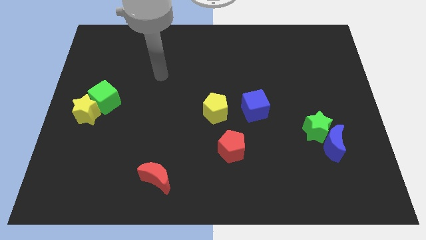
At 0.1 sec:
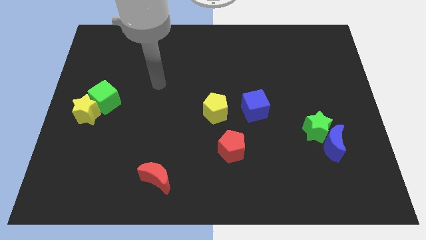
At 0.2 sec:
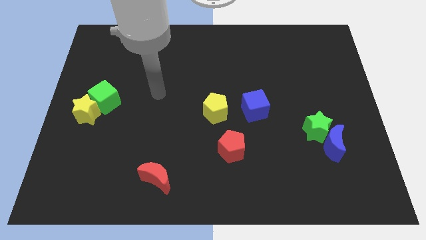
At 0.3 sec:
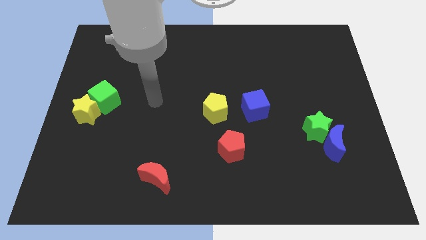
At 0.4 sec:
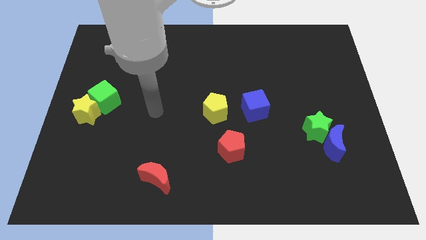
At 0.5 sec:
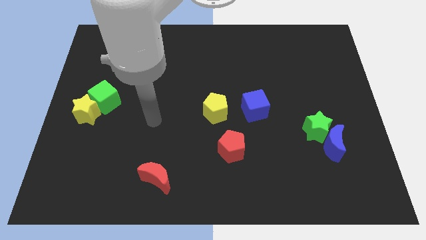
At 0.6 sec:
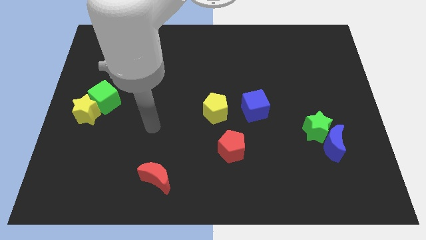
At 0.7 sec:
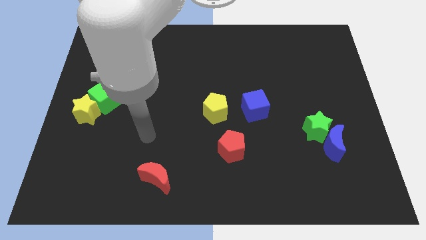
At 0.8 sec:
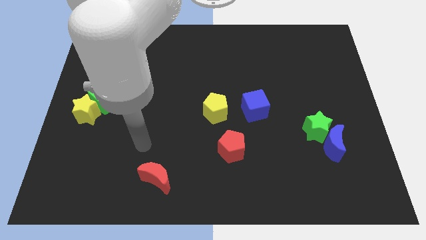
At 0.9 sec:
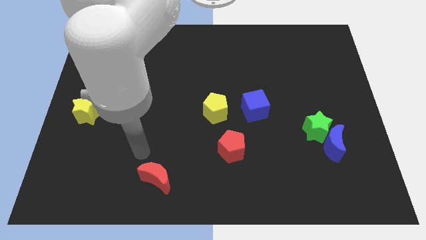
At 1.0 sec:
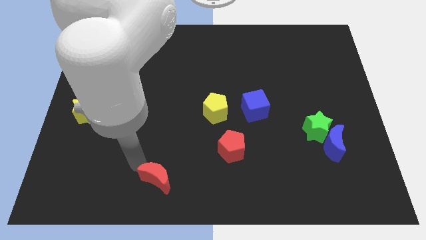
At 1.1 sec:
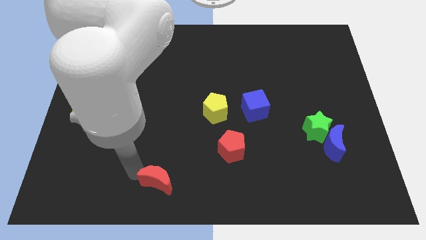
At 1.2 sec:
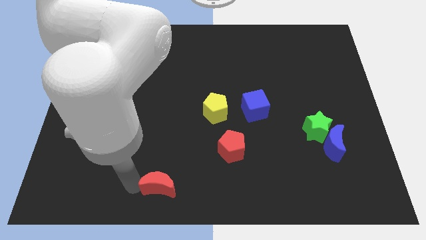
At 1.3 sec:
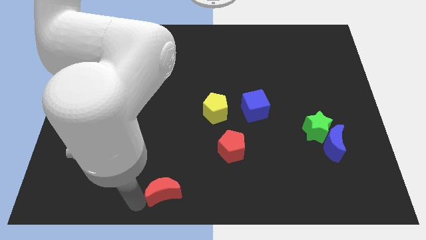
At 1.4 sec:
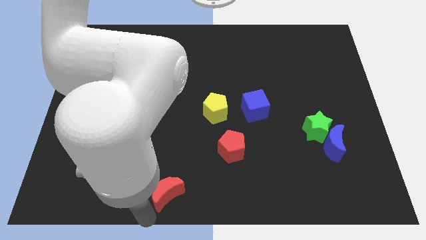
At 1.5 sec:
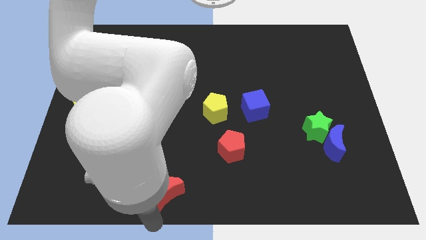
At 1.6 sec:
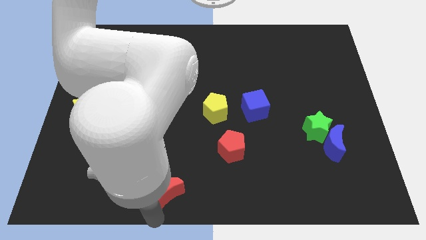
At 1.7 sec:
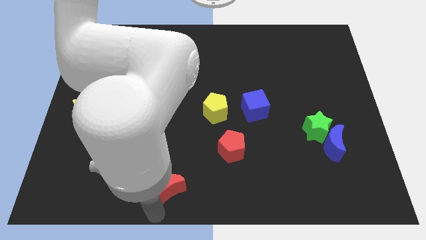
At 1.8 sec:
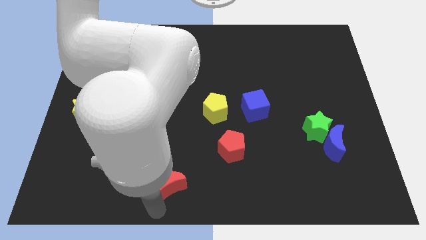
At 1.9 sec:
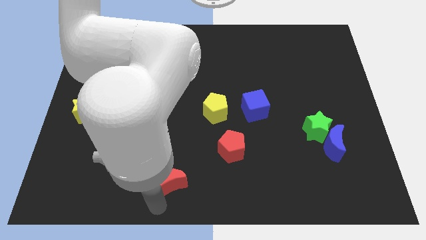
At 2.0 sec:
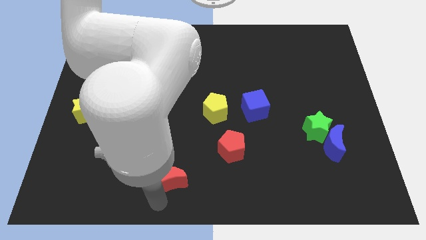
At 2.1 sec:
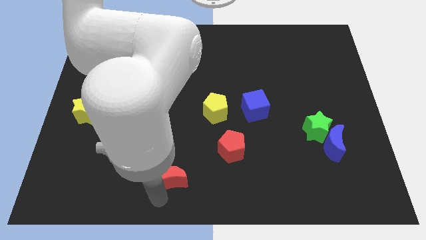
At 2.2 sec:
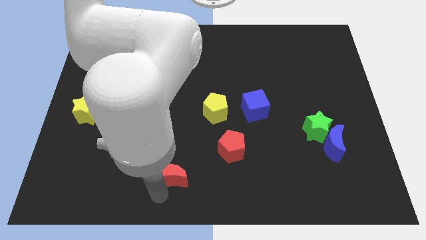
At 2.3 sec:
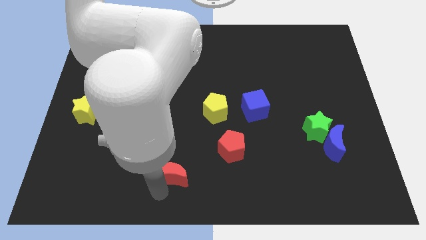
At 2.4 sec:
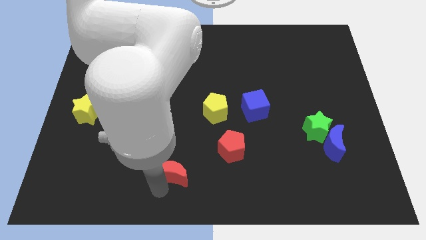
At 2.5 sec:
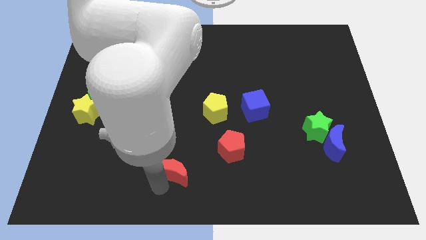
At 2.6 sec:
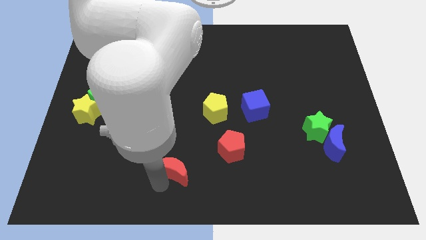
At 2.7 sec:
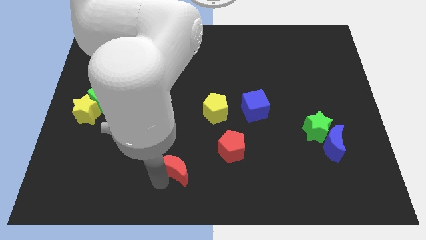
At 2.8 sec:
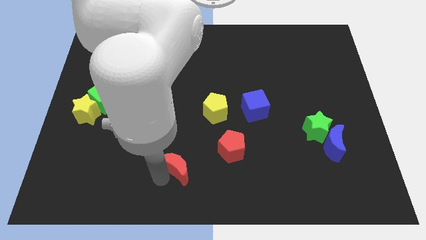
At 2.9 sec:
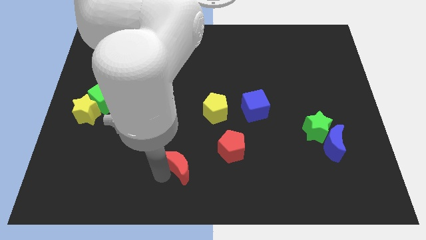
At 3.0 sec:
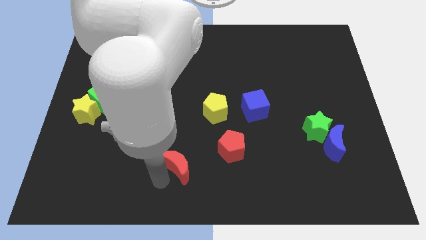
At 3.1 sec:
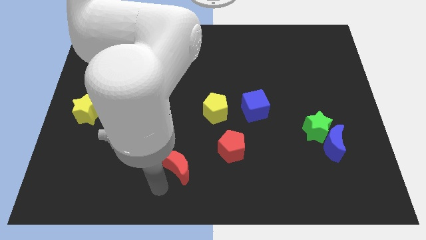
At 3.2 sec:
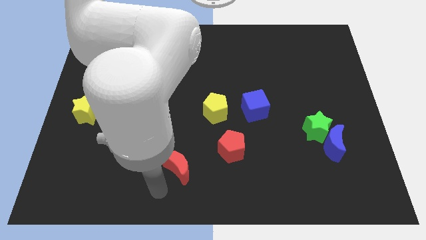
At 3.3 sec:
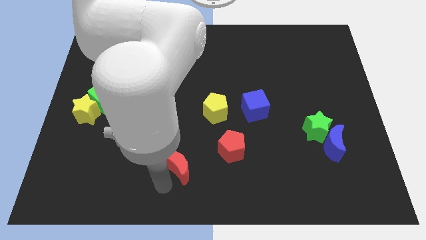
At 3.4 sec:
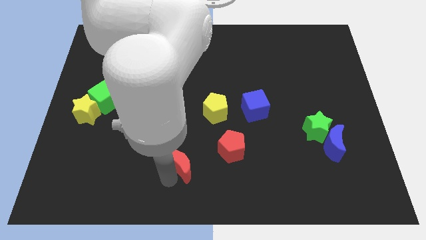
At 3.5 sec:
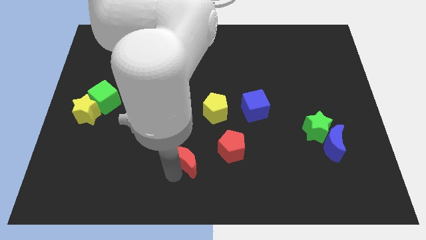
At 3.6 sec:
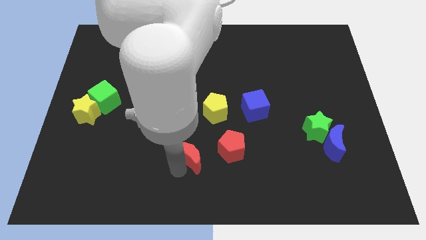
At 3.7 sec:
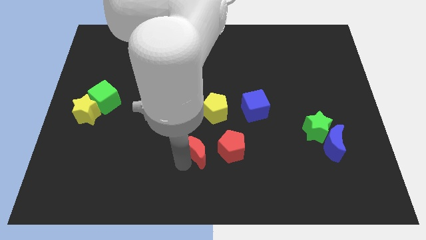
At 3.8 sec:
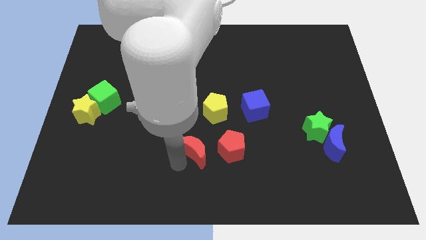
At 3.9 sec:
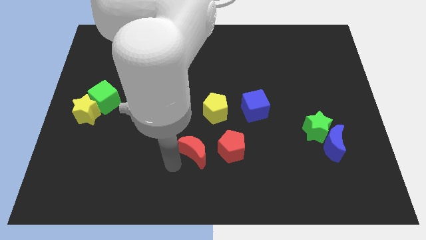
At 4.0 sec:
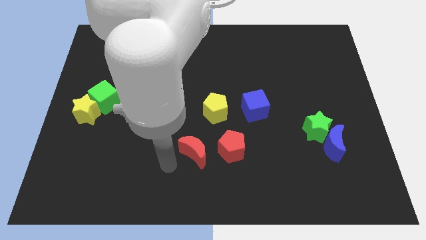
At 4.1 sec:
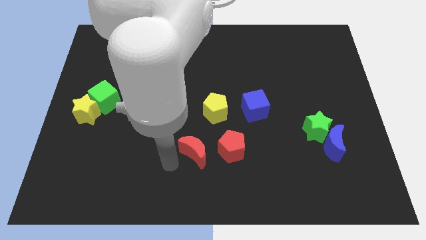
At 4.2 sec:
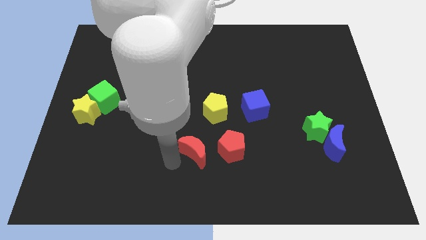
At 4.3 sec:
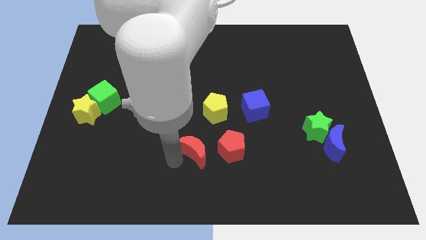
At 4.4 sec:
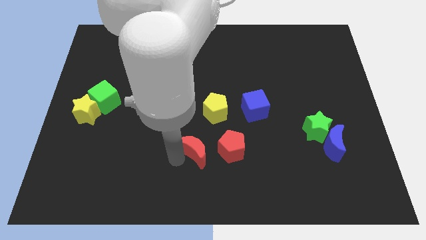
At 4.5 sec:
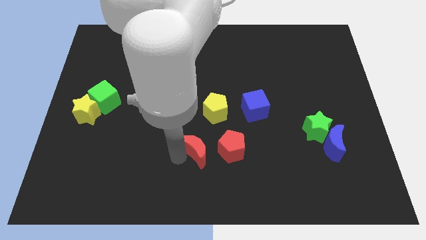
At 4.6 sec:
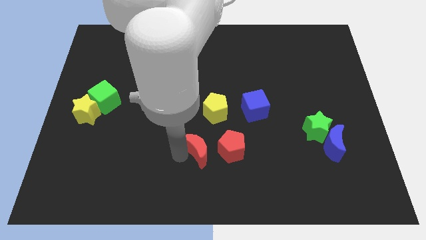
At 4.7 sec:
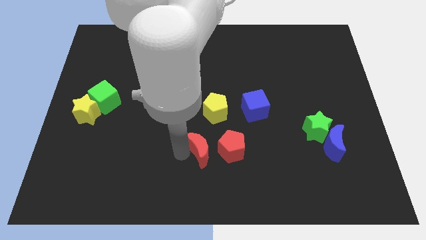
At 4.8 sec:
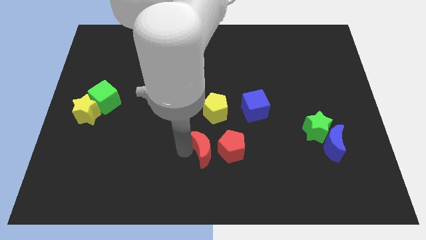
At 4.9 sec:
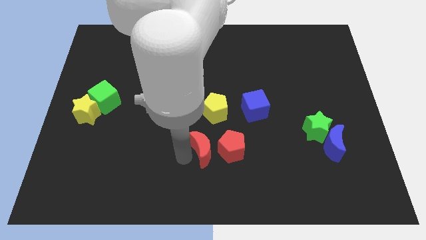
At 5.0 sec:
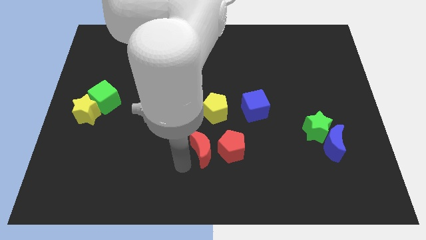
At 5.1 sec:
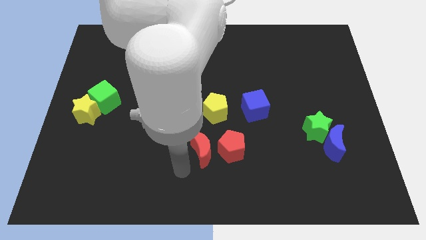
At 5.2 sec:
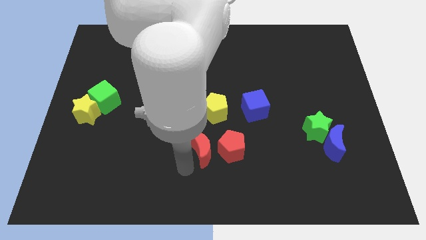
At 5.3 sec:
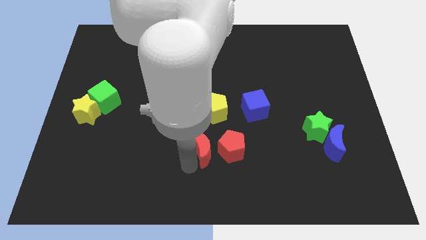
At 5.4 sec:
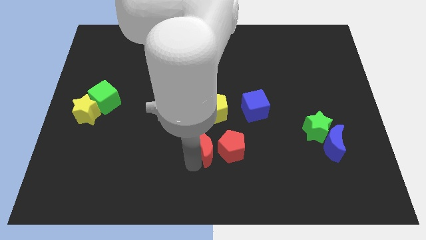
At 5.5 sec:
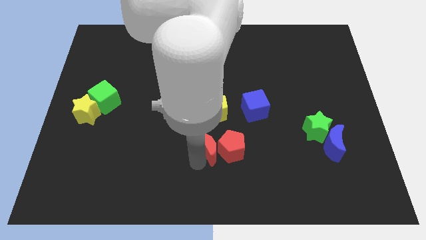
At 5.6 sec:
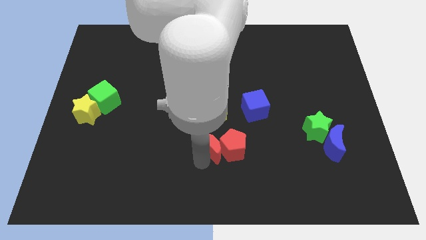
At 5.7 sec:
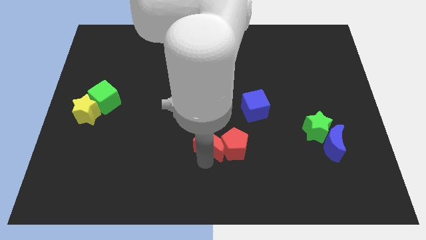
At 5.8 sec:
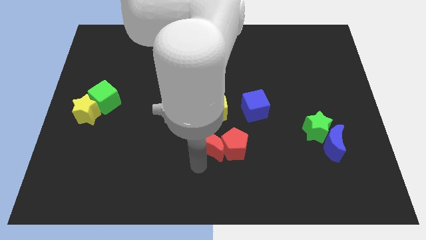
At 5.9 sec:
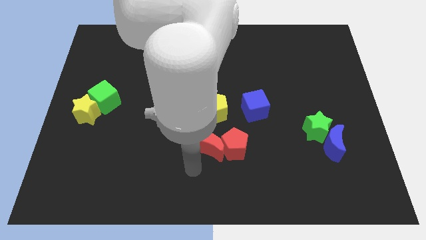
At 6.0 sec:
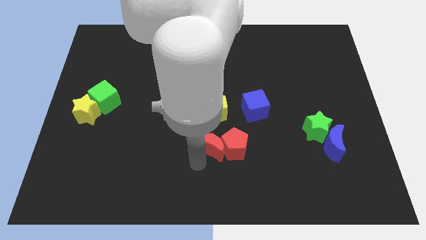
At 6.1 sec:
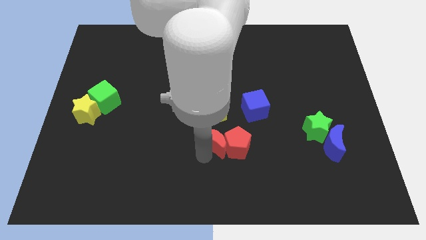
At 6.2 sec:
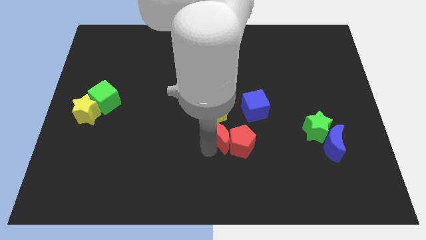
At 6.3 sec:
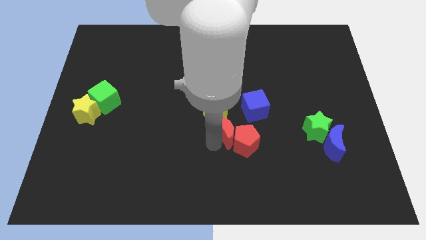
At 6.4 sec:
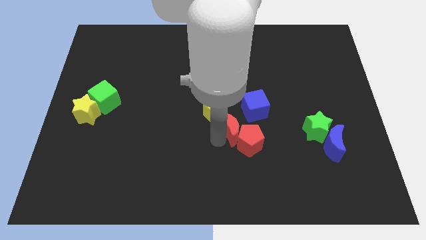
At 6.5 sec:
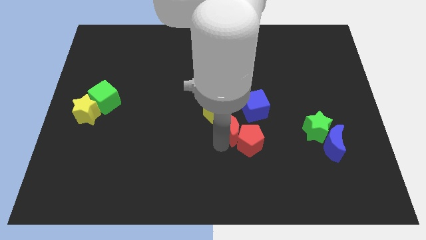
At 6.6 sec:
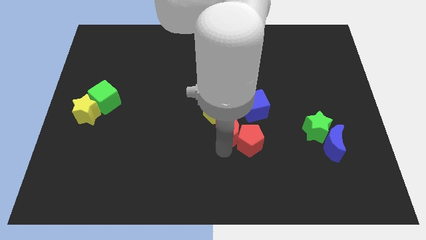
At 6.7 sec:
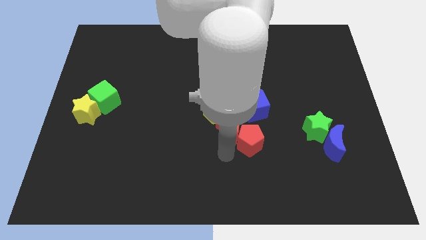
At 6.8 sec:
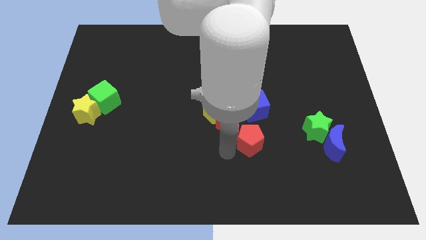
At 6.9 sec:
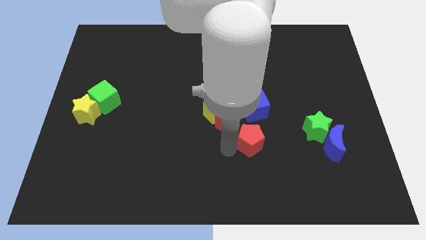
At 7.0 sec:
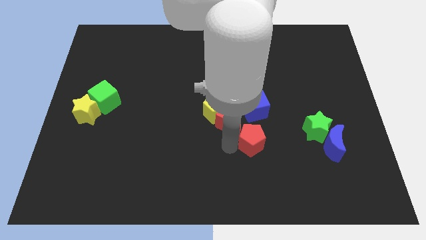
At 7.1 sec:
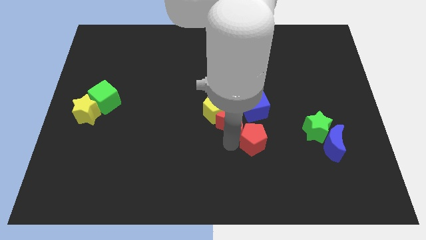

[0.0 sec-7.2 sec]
move the red moon upwards and then right

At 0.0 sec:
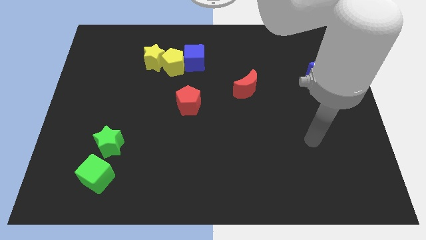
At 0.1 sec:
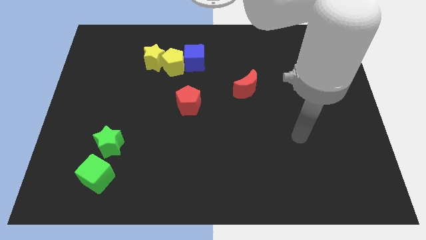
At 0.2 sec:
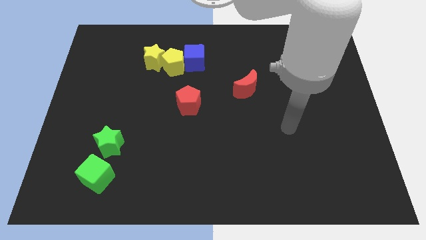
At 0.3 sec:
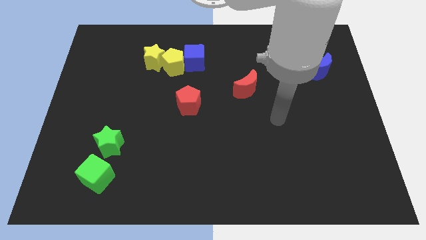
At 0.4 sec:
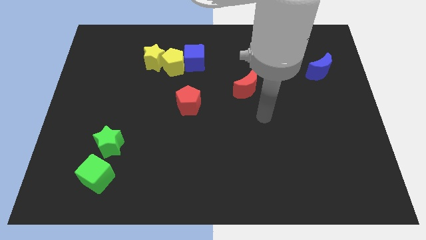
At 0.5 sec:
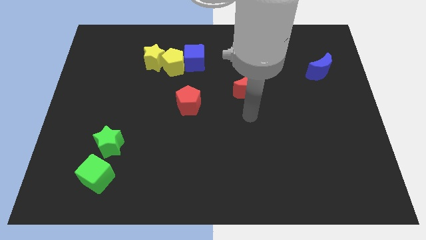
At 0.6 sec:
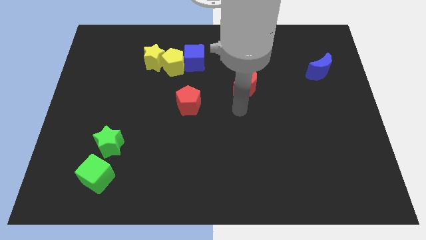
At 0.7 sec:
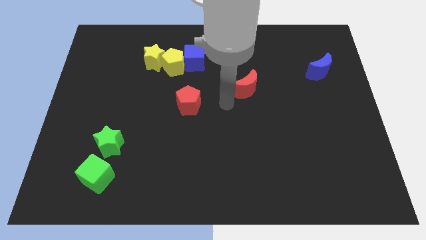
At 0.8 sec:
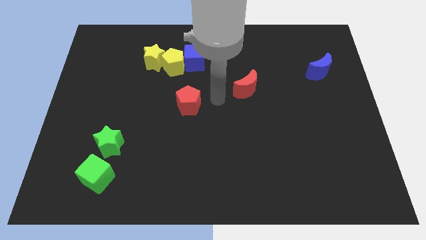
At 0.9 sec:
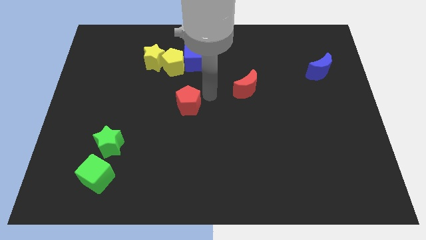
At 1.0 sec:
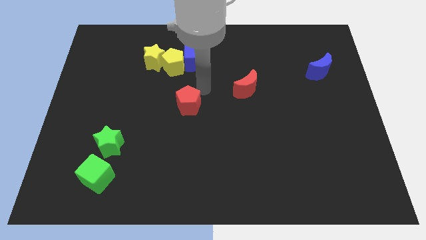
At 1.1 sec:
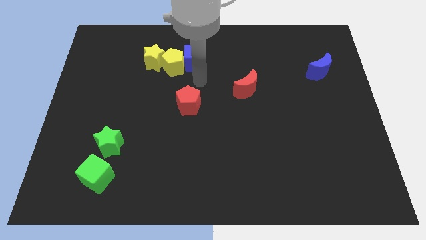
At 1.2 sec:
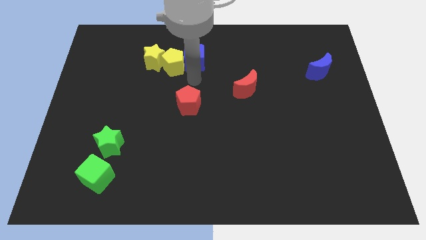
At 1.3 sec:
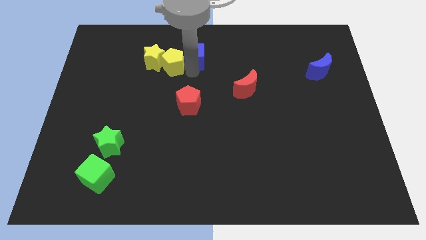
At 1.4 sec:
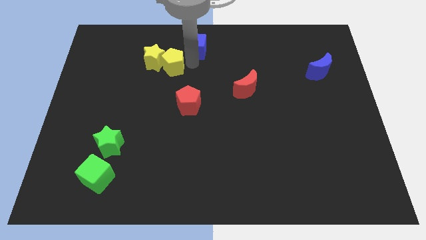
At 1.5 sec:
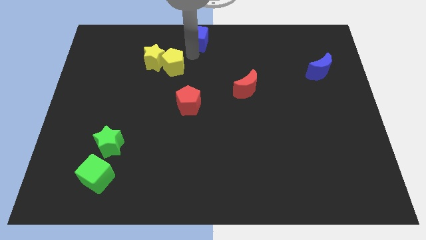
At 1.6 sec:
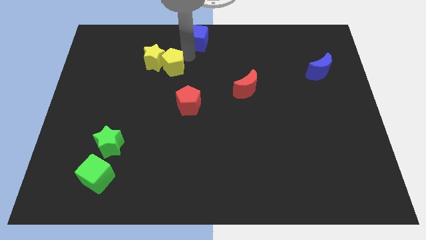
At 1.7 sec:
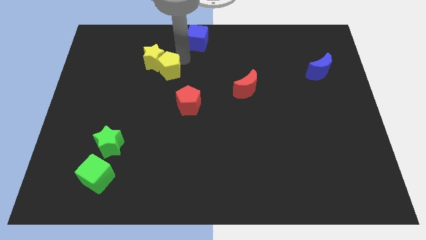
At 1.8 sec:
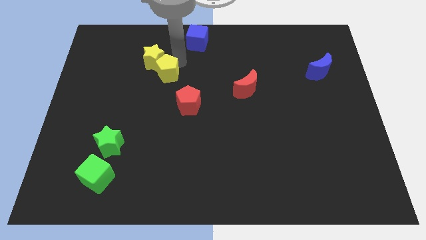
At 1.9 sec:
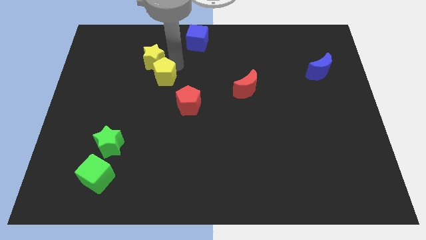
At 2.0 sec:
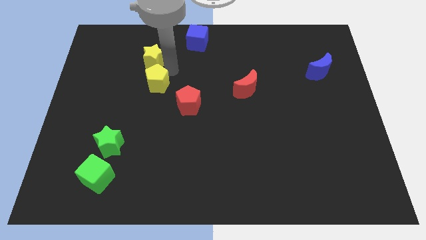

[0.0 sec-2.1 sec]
slightly slide the yellow pentagon diagonally downwards and left
